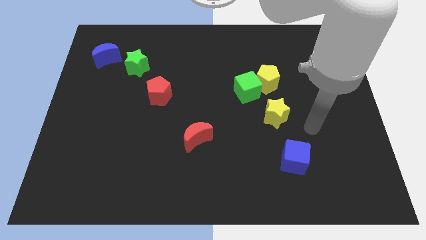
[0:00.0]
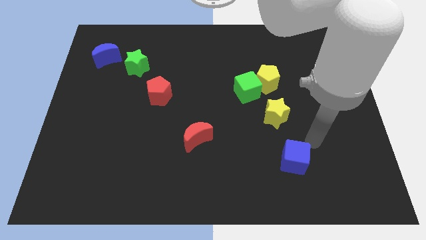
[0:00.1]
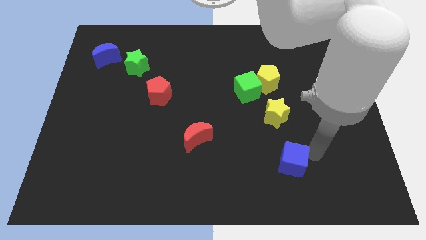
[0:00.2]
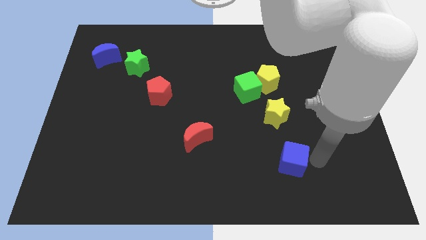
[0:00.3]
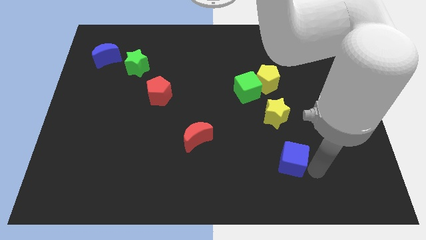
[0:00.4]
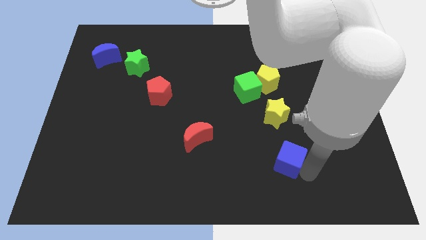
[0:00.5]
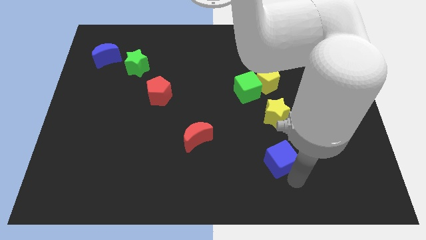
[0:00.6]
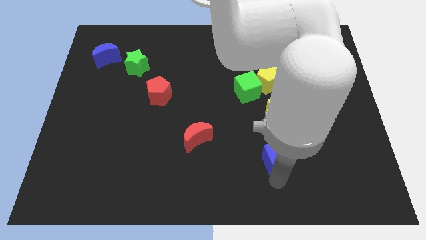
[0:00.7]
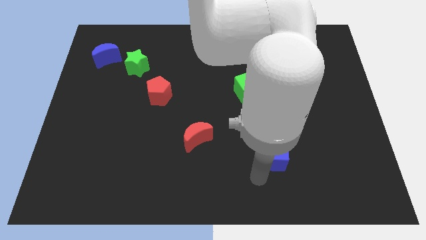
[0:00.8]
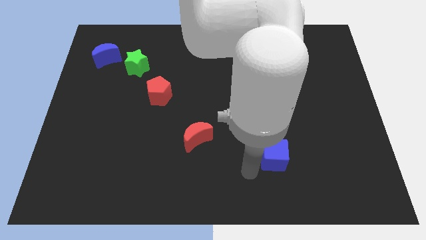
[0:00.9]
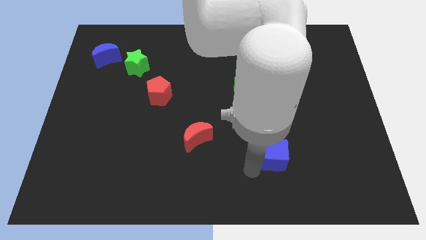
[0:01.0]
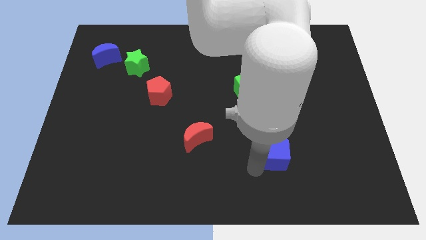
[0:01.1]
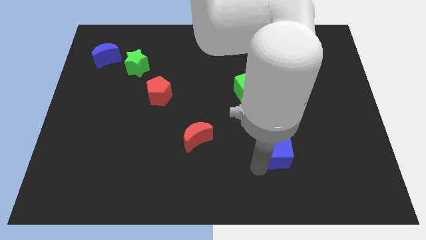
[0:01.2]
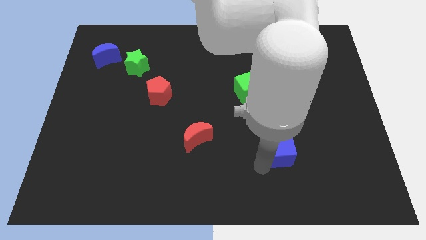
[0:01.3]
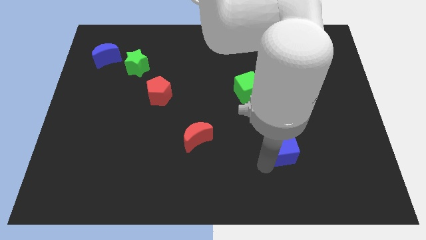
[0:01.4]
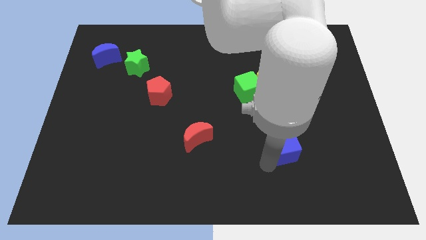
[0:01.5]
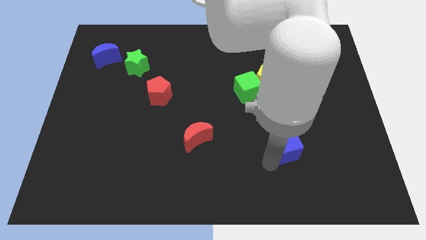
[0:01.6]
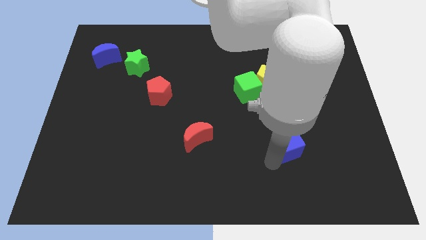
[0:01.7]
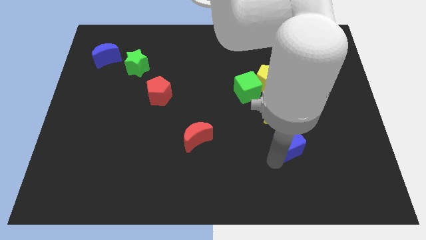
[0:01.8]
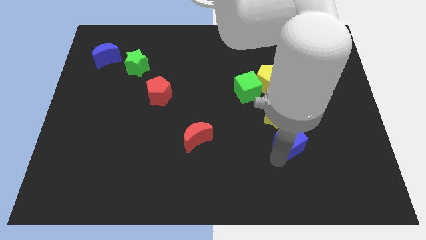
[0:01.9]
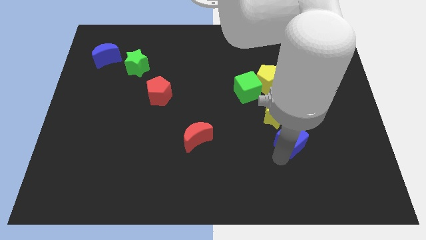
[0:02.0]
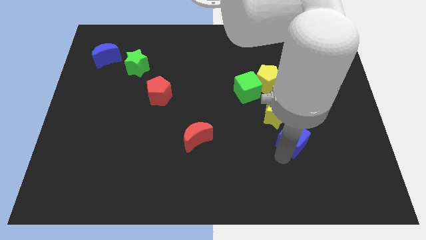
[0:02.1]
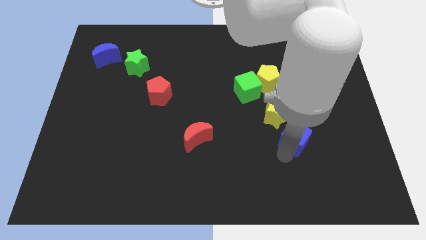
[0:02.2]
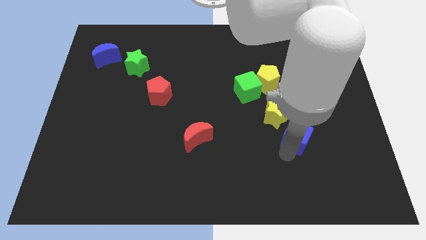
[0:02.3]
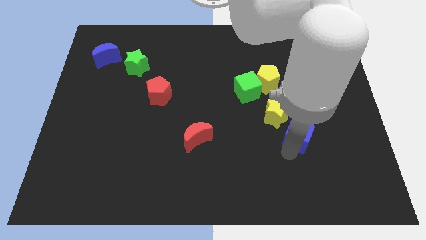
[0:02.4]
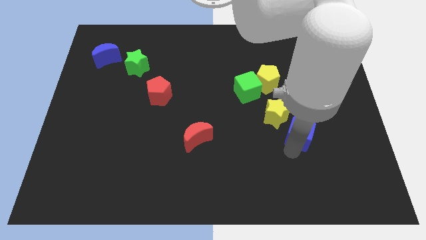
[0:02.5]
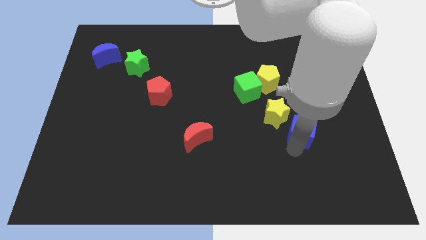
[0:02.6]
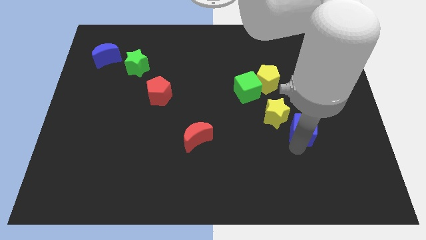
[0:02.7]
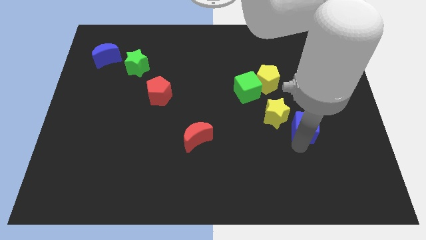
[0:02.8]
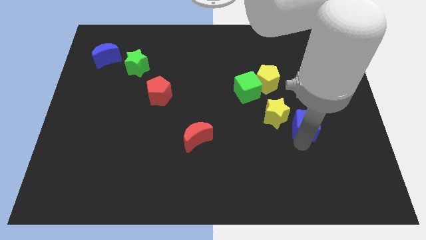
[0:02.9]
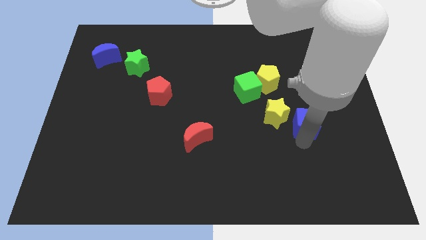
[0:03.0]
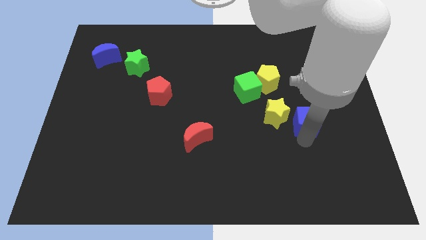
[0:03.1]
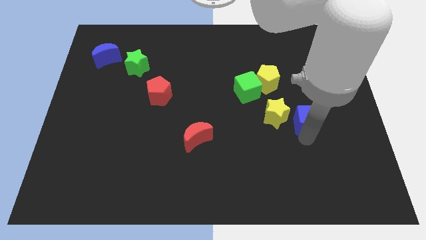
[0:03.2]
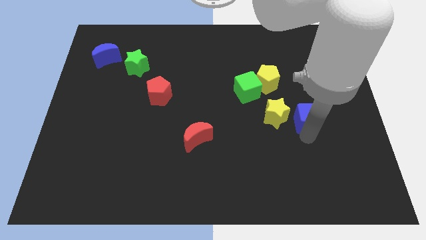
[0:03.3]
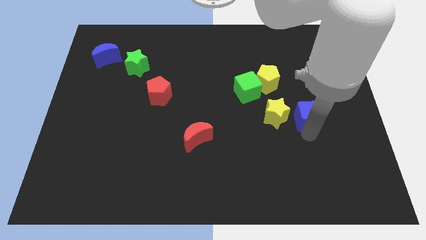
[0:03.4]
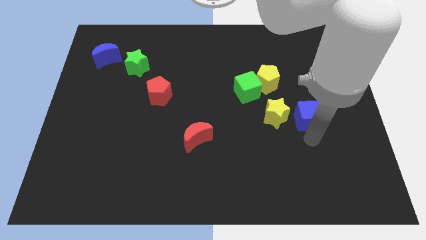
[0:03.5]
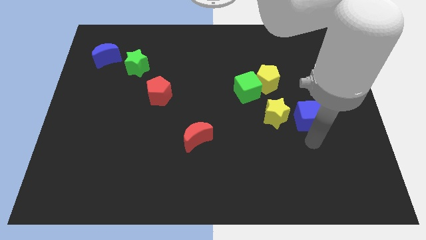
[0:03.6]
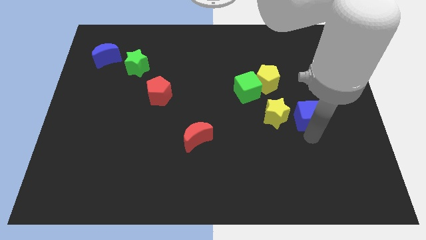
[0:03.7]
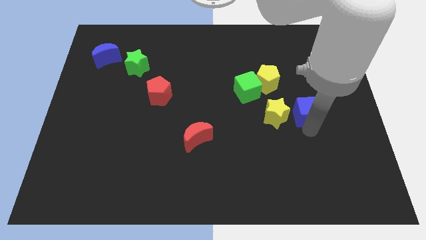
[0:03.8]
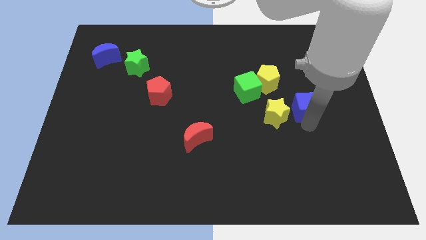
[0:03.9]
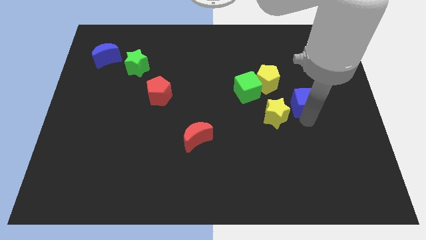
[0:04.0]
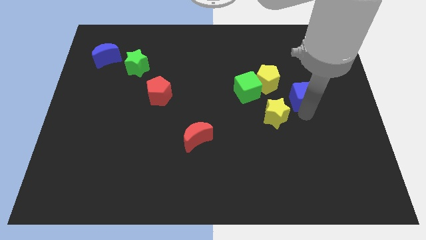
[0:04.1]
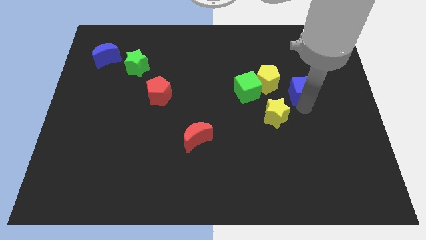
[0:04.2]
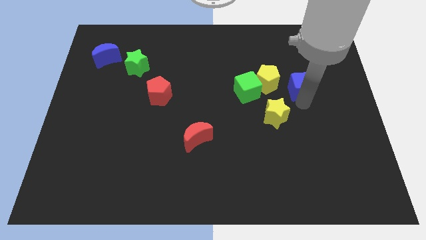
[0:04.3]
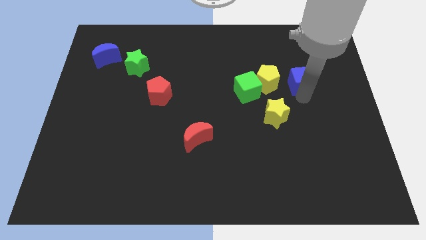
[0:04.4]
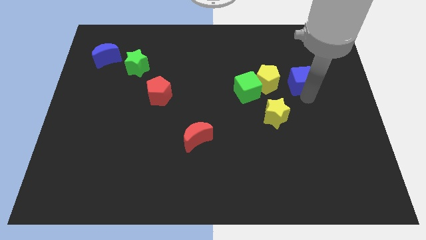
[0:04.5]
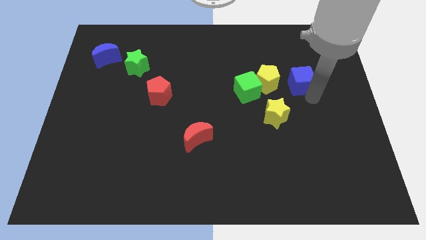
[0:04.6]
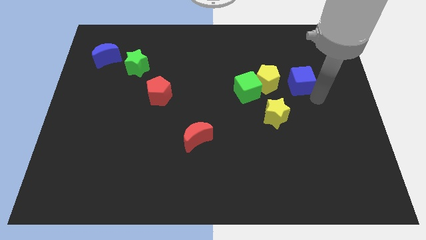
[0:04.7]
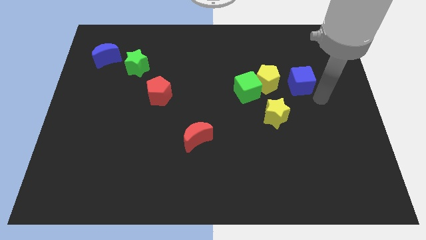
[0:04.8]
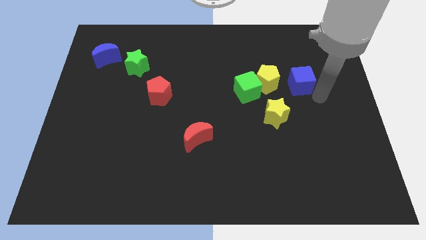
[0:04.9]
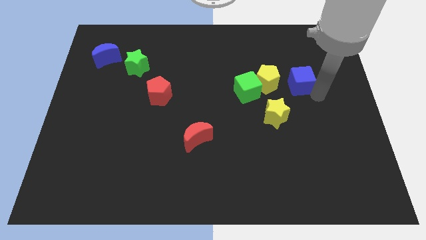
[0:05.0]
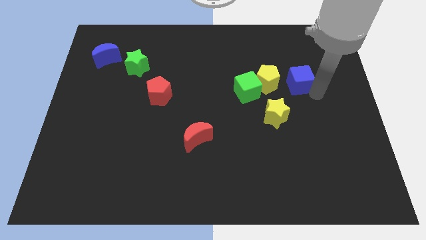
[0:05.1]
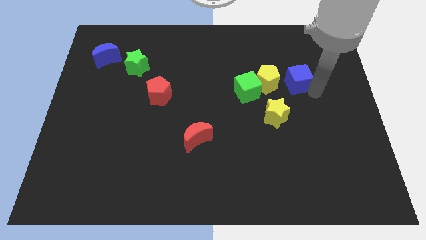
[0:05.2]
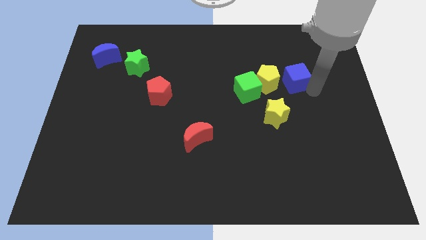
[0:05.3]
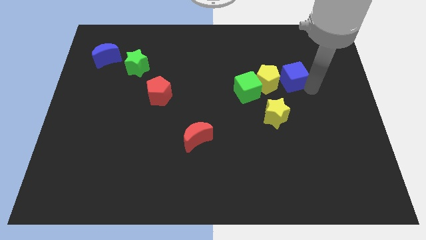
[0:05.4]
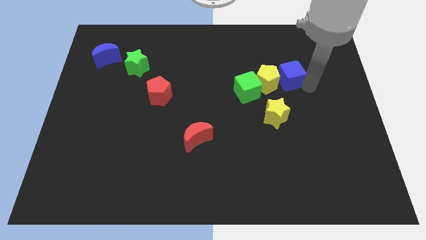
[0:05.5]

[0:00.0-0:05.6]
put the blue cube above the yellow star
